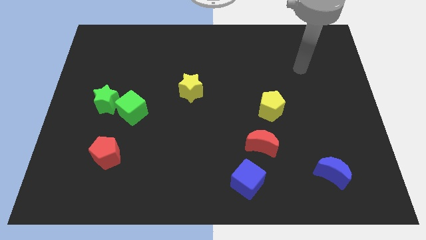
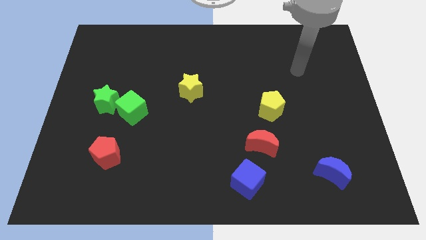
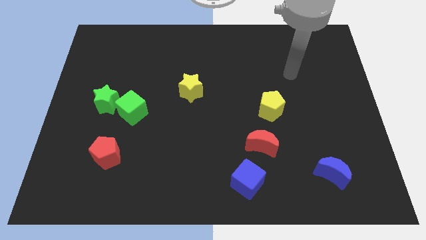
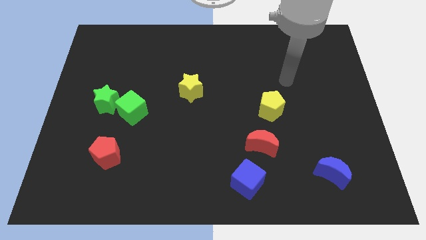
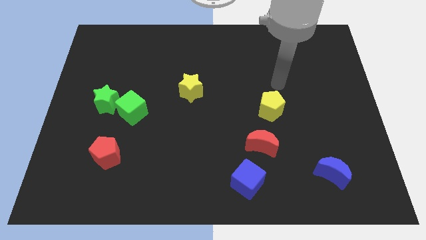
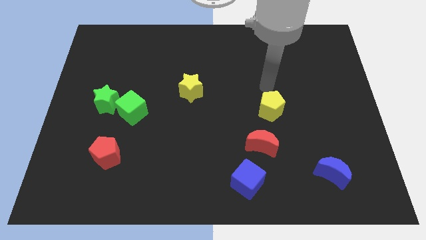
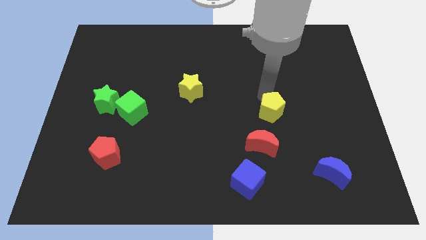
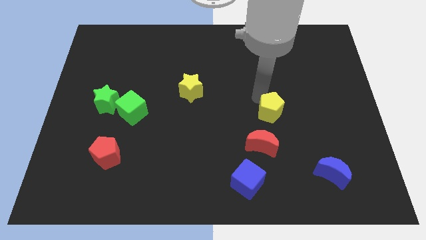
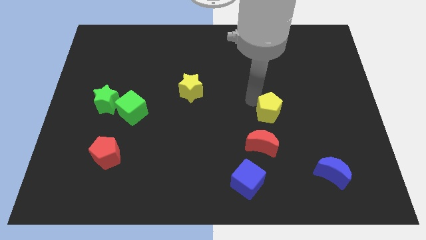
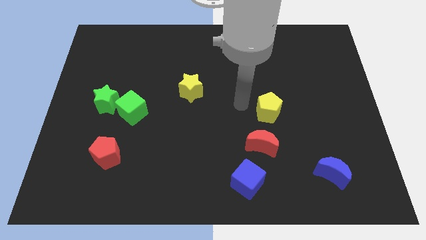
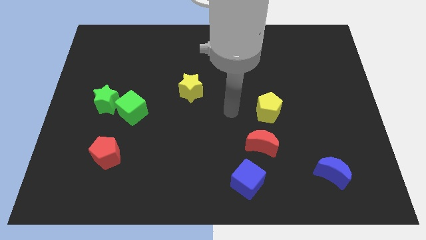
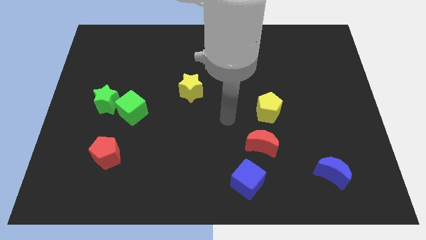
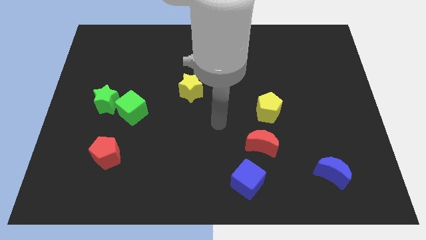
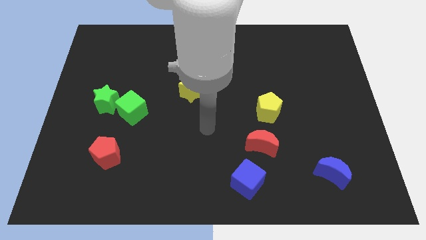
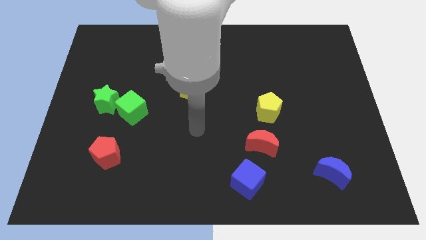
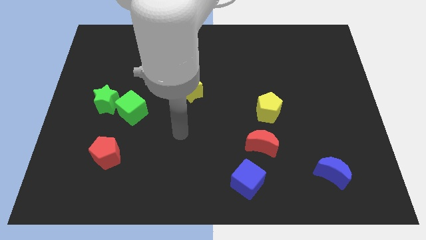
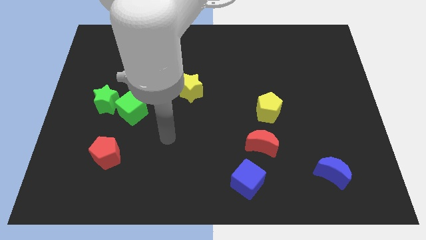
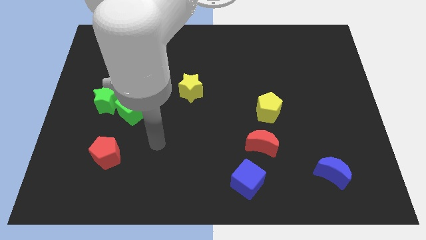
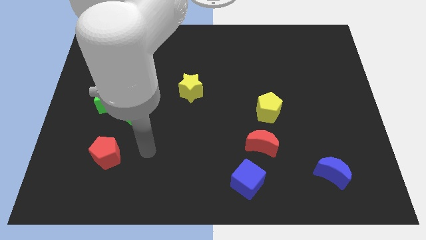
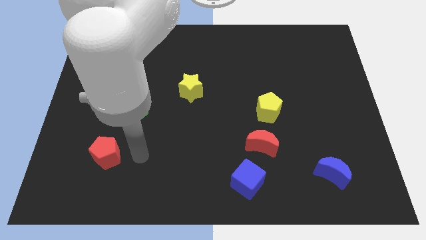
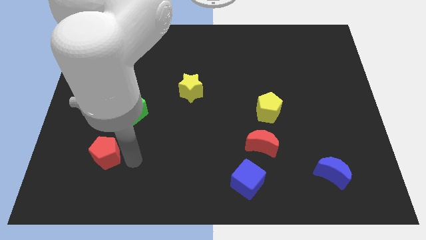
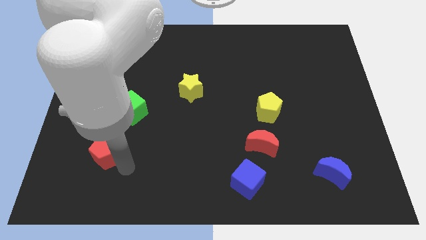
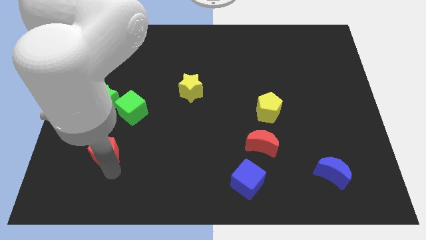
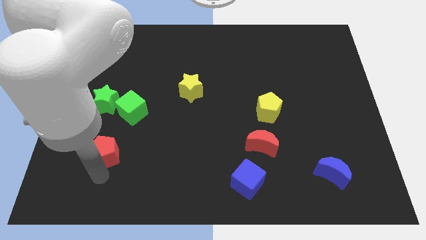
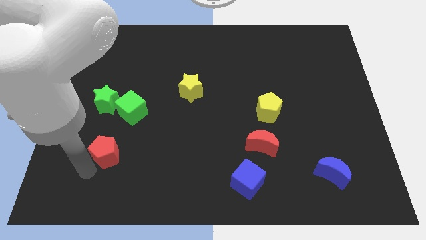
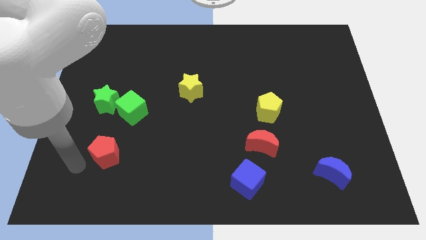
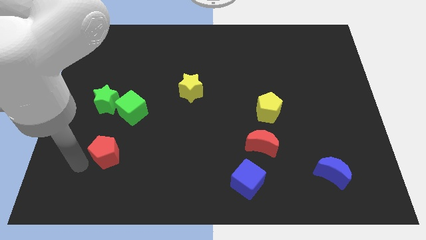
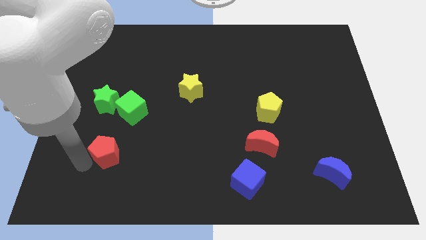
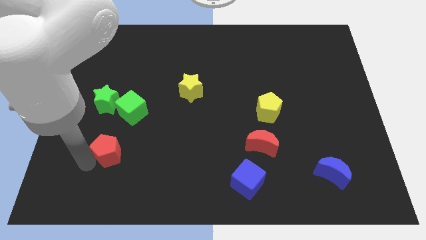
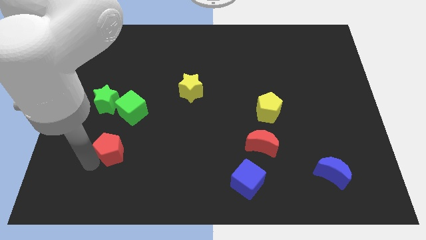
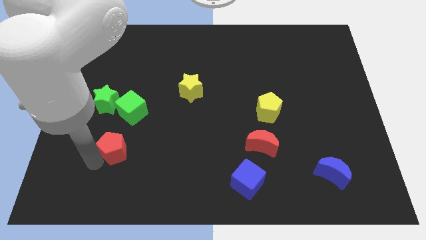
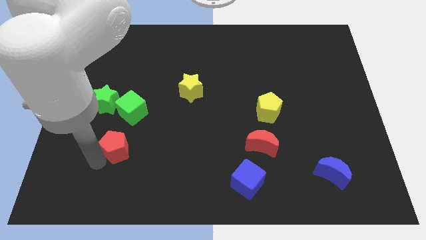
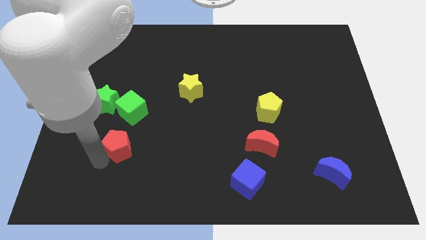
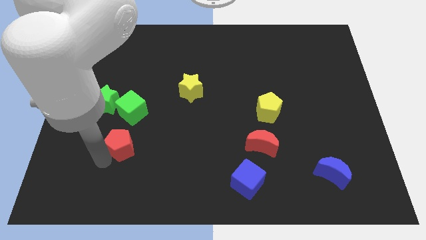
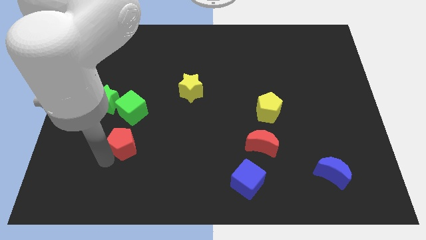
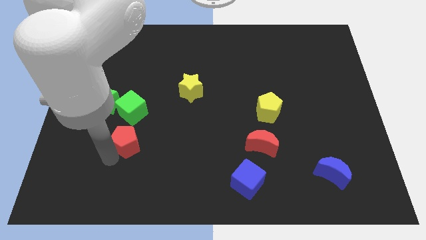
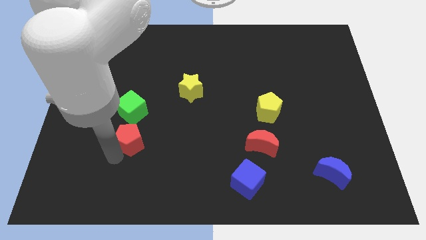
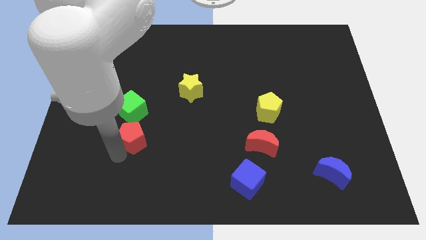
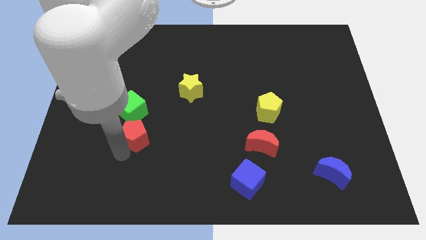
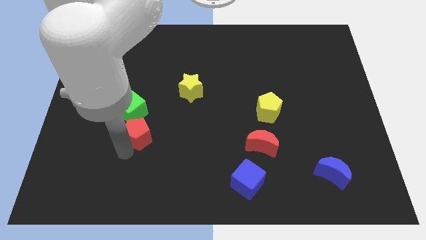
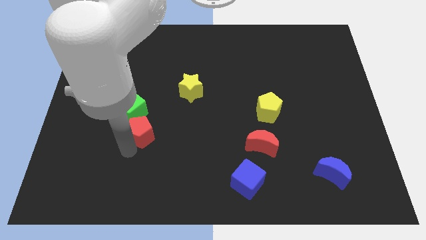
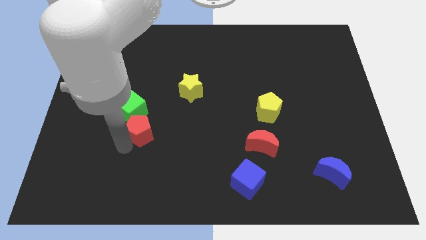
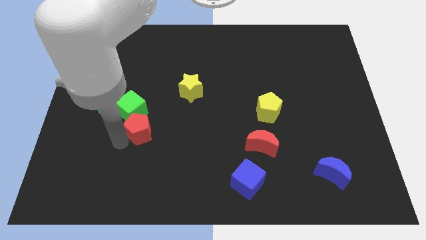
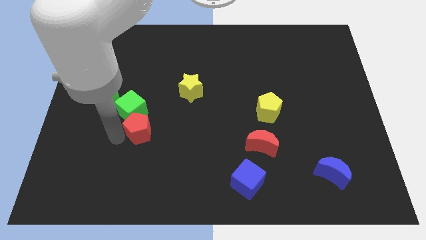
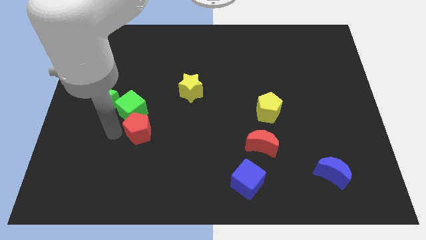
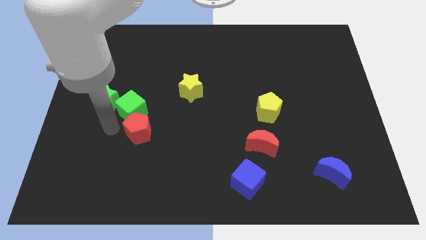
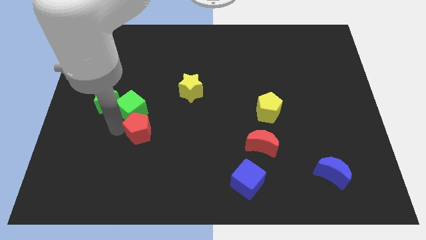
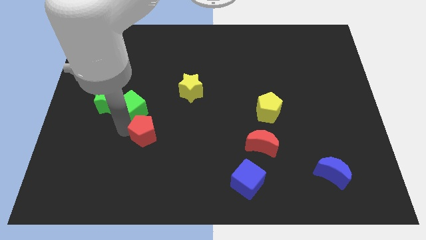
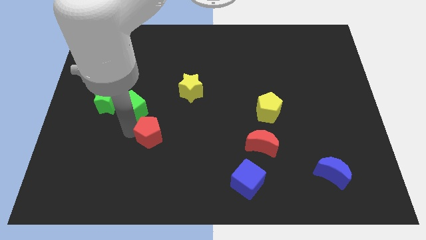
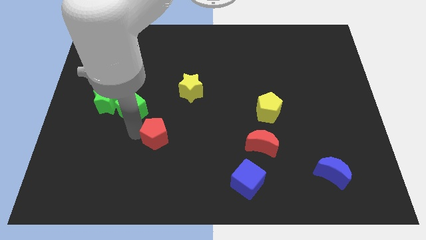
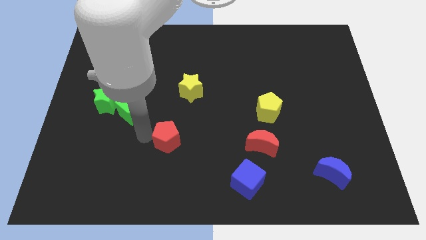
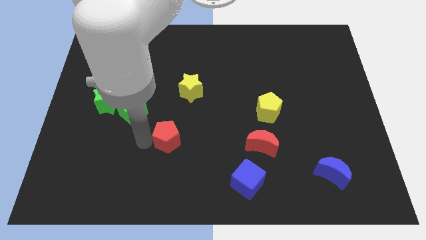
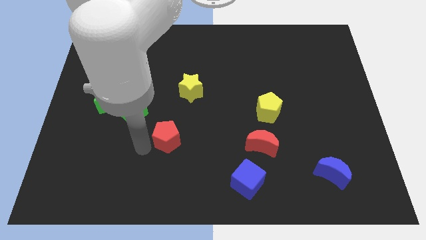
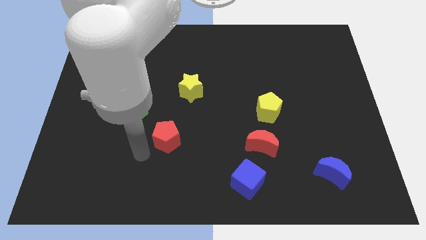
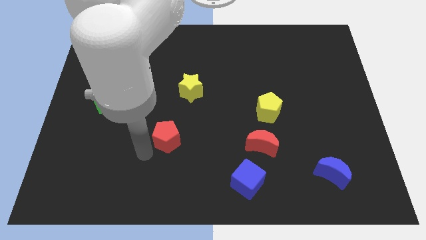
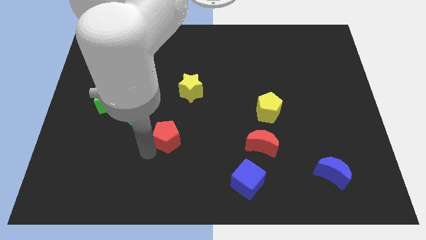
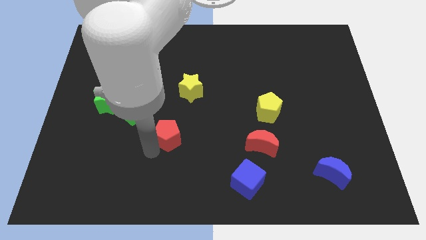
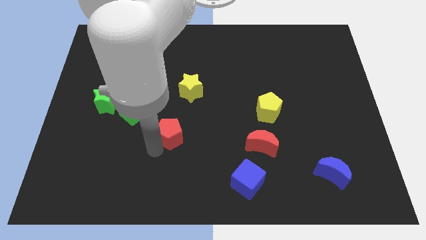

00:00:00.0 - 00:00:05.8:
put the red pentagon to the bottom side of the yellow star

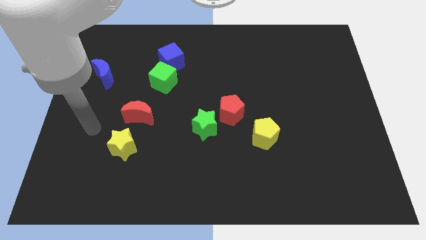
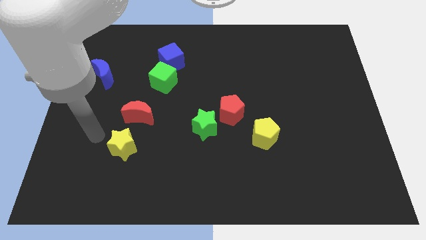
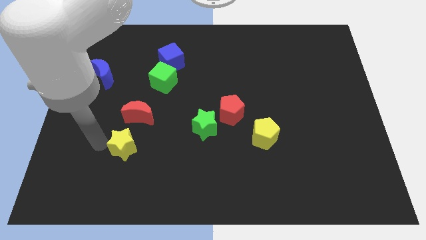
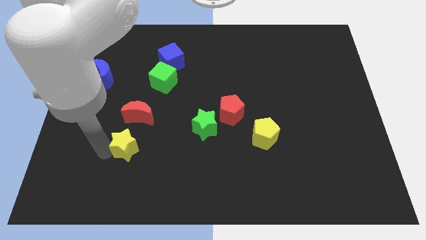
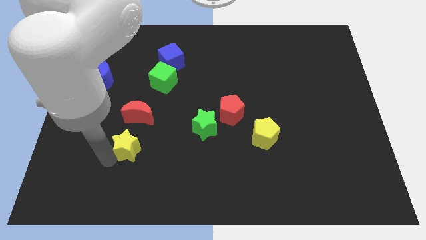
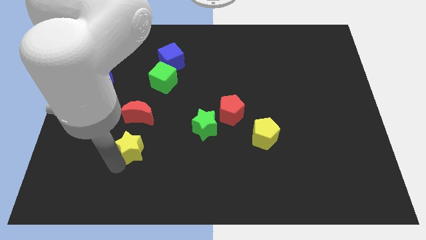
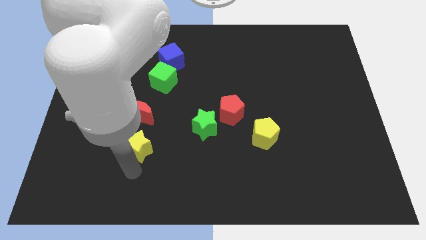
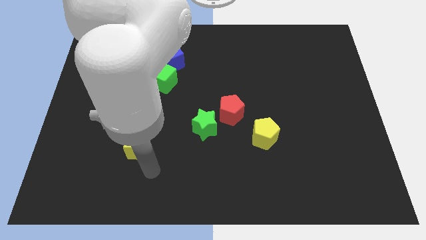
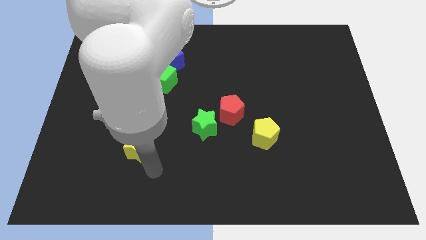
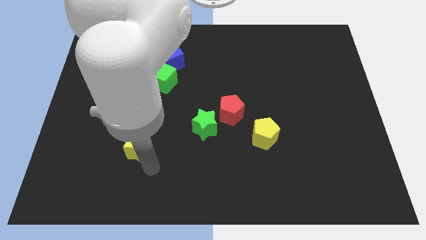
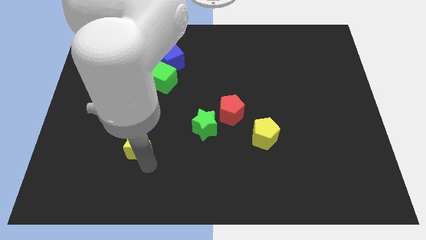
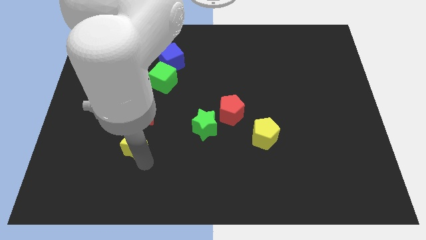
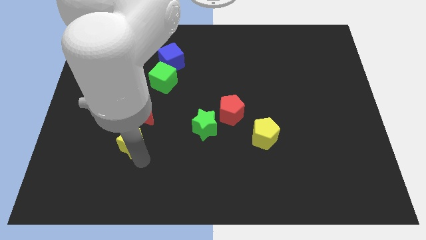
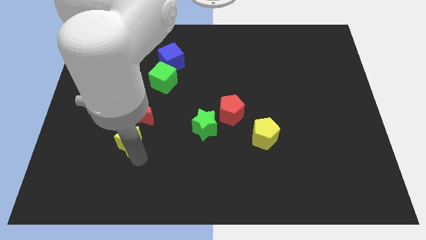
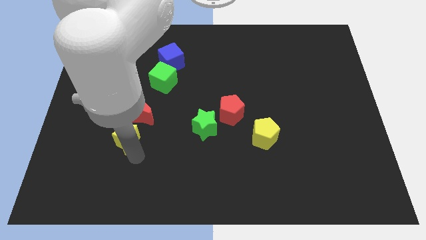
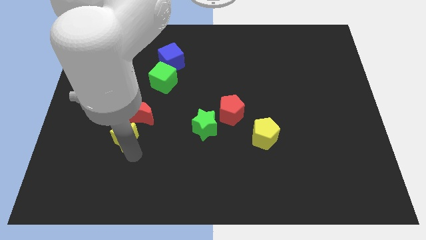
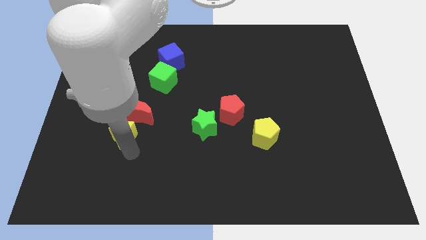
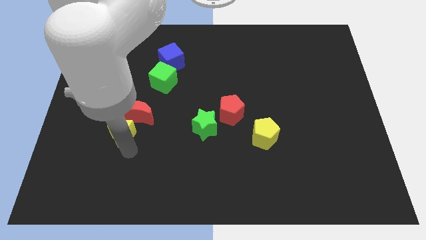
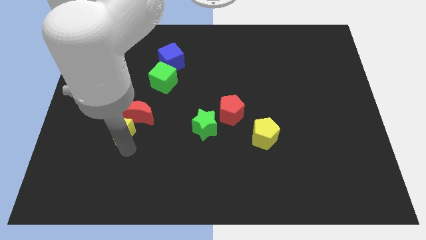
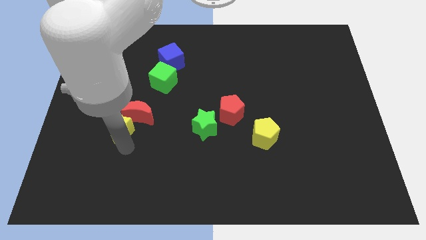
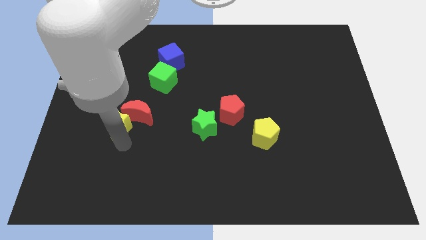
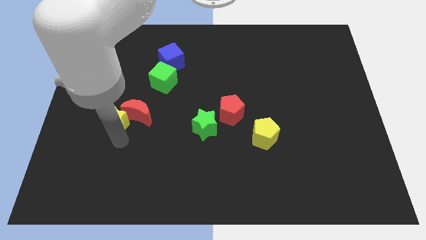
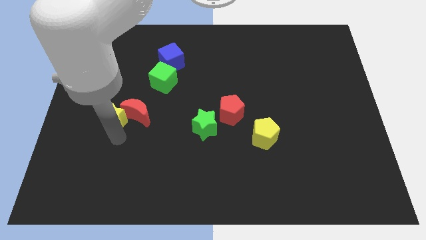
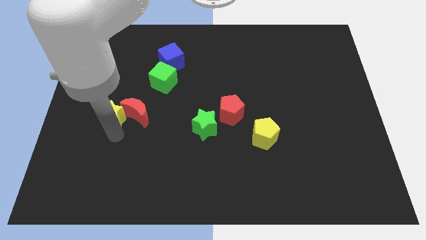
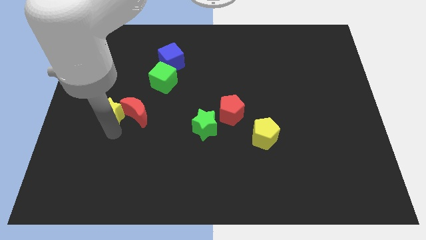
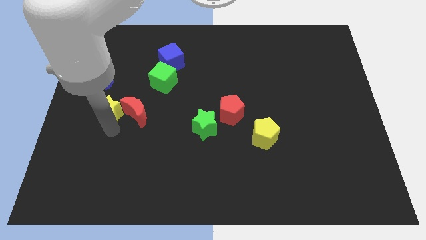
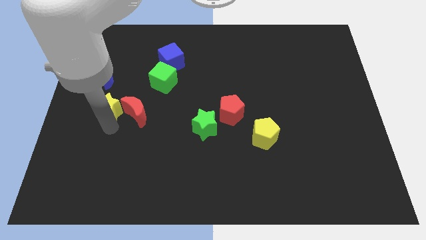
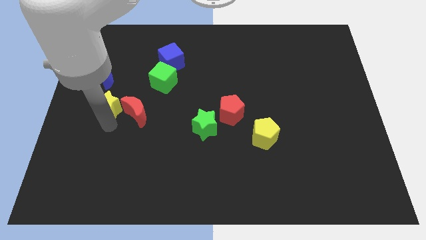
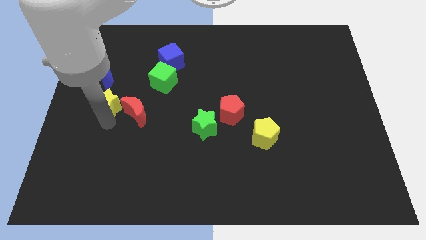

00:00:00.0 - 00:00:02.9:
put the yellow star to the bottom right side of the blue moon

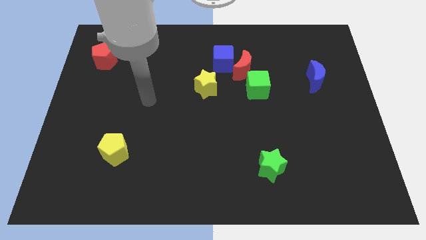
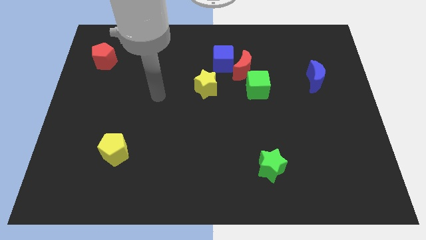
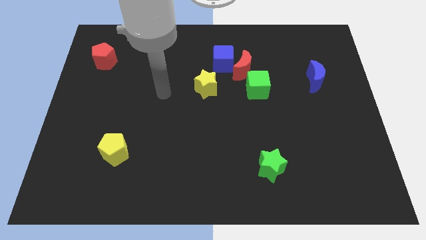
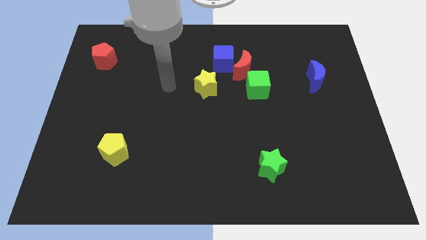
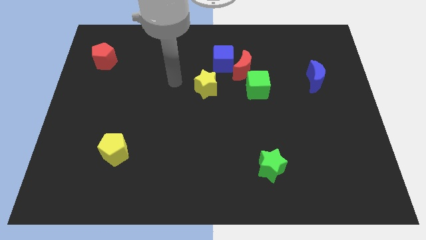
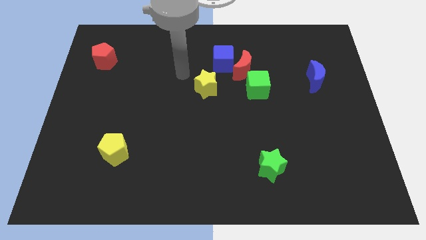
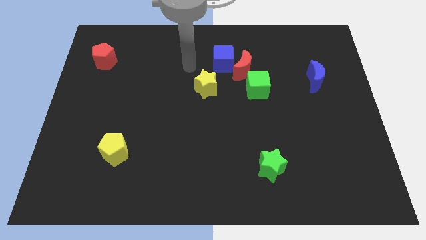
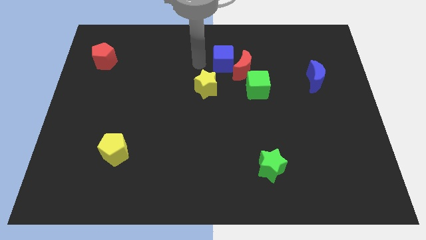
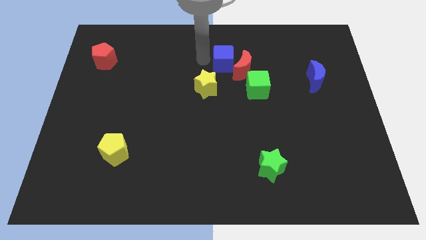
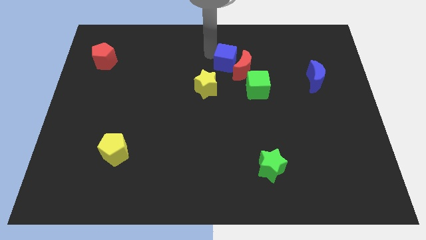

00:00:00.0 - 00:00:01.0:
move the red moon to the bottom of the blue cube
